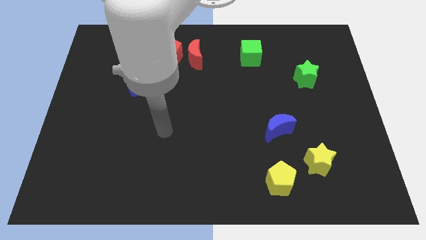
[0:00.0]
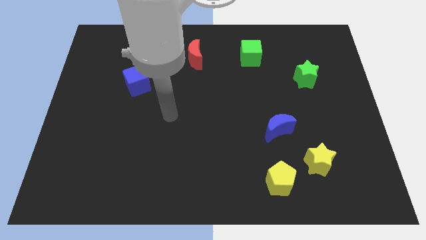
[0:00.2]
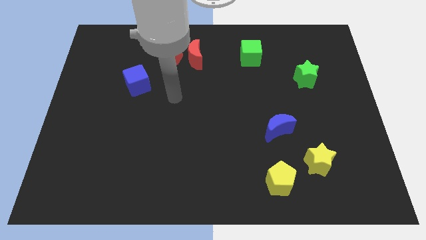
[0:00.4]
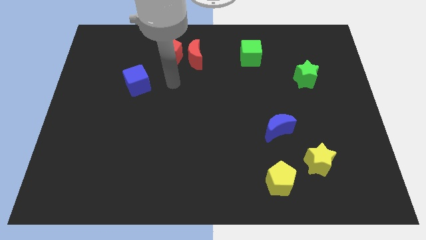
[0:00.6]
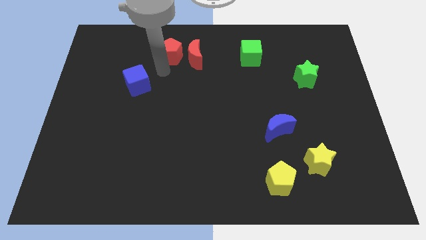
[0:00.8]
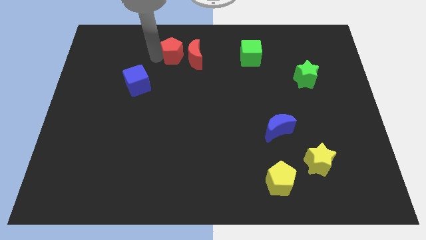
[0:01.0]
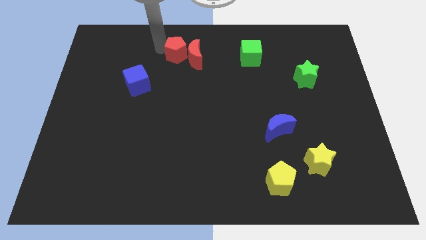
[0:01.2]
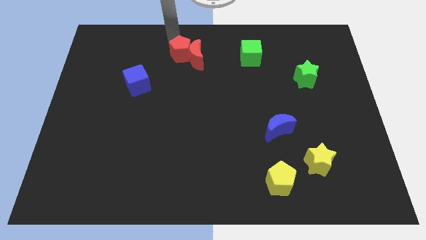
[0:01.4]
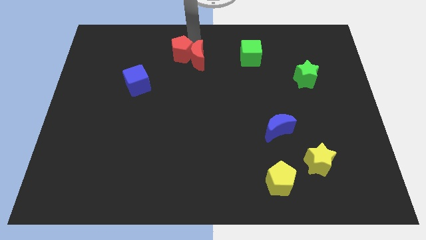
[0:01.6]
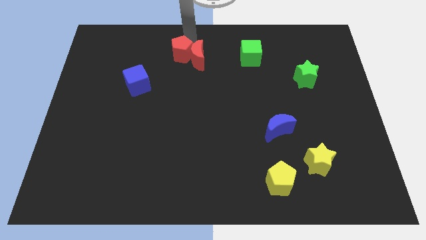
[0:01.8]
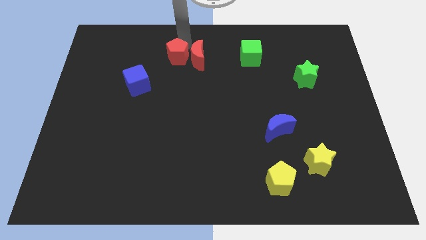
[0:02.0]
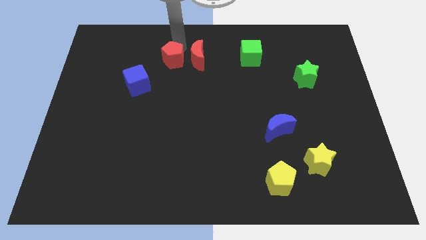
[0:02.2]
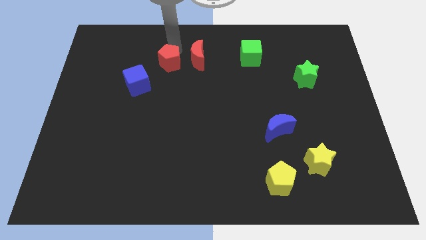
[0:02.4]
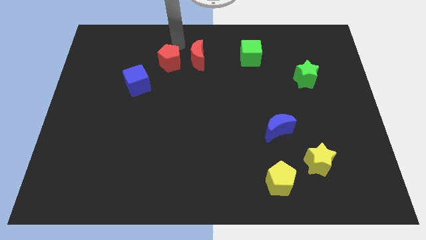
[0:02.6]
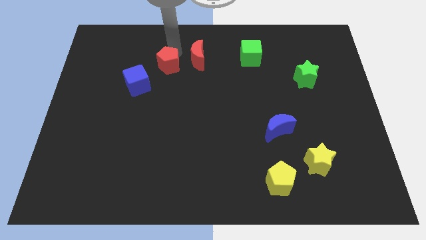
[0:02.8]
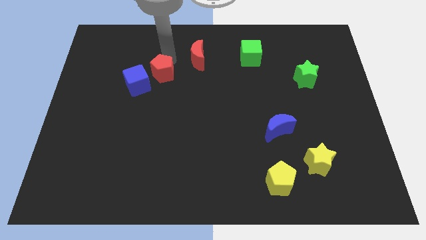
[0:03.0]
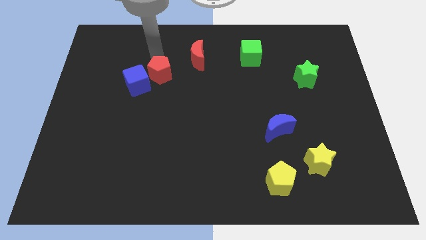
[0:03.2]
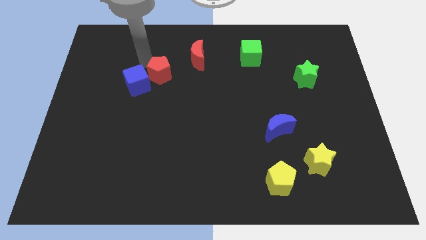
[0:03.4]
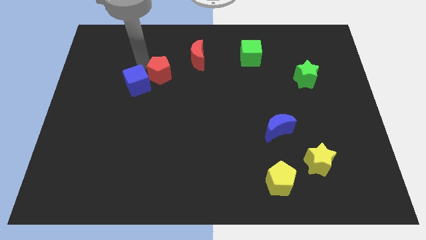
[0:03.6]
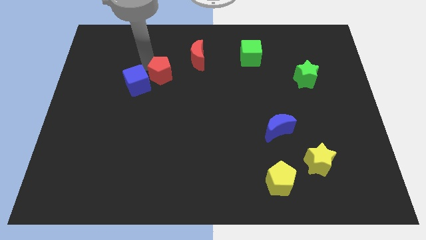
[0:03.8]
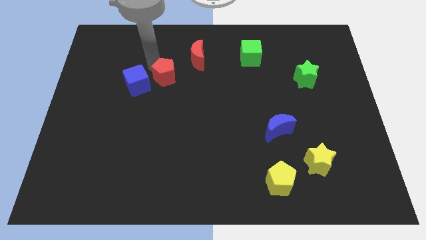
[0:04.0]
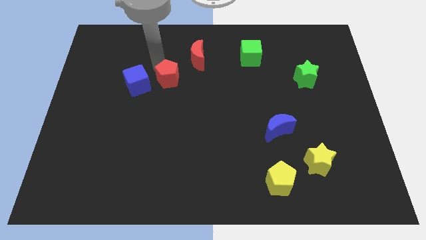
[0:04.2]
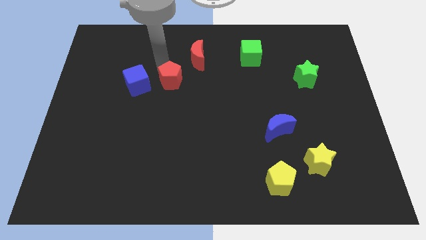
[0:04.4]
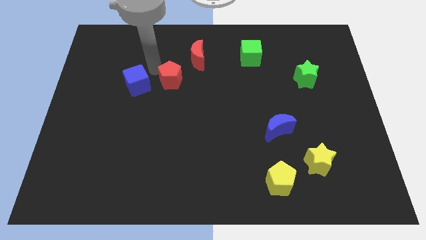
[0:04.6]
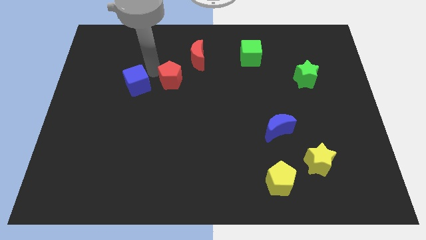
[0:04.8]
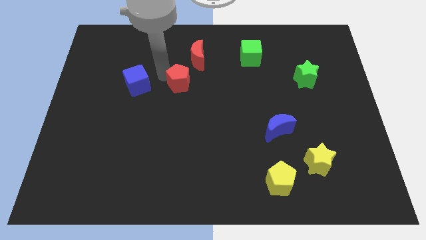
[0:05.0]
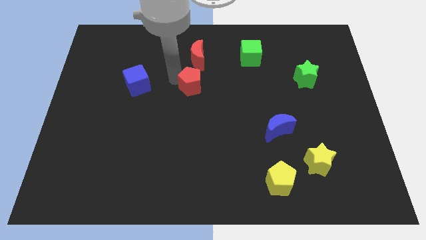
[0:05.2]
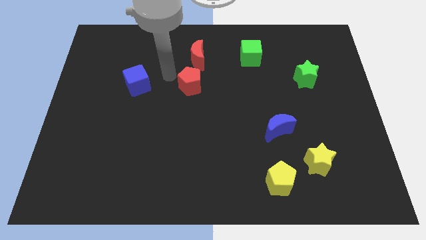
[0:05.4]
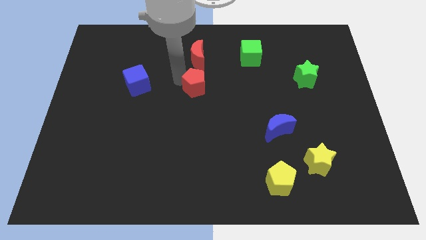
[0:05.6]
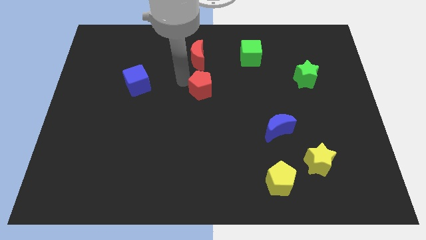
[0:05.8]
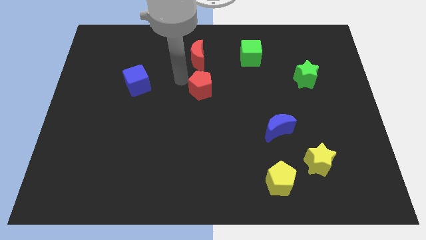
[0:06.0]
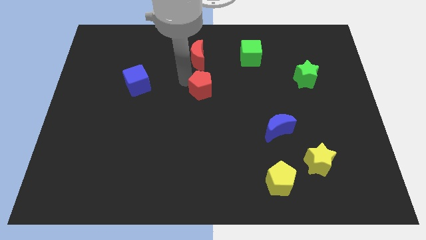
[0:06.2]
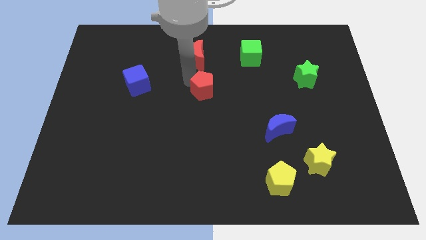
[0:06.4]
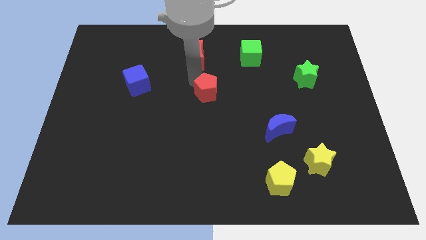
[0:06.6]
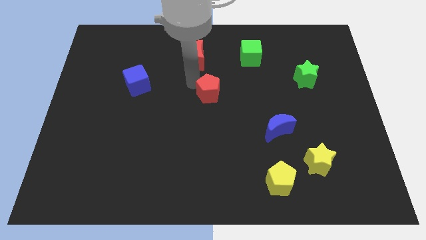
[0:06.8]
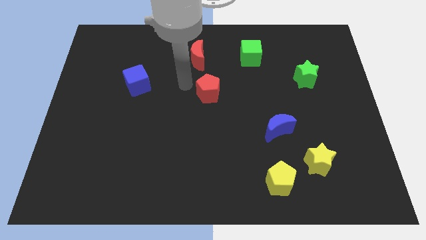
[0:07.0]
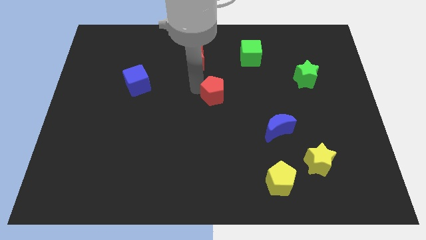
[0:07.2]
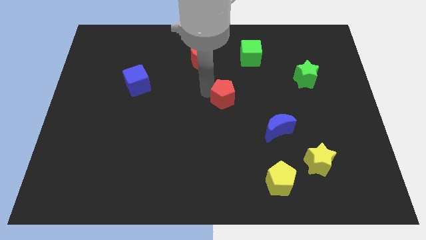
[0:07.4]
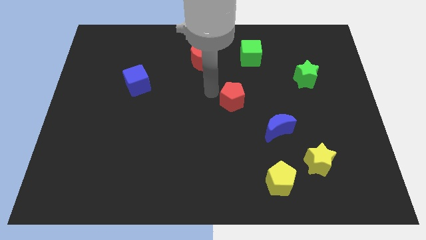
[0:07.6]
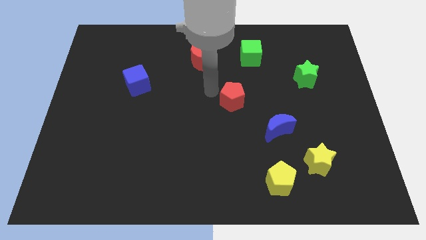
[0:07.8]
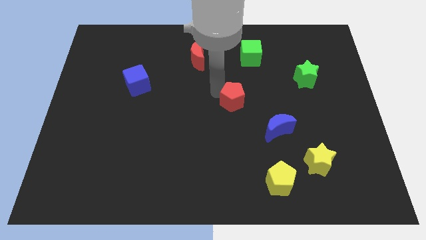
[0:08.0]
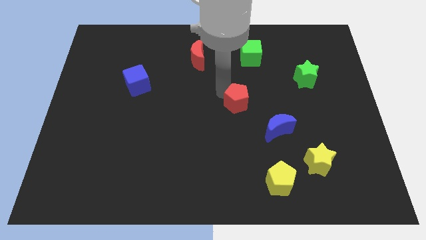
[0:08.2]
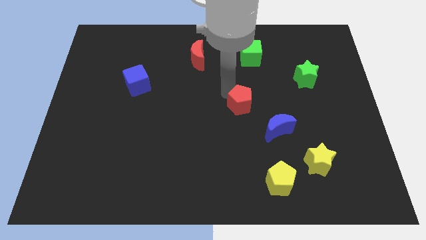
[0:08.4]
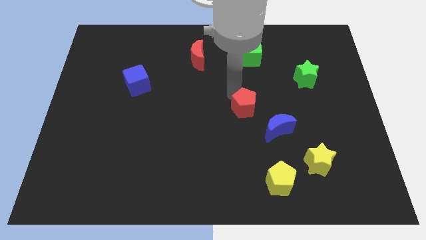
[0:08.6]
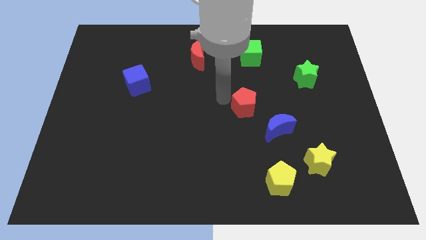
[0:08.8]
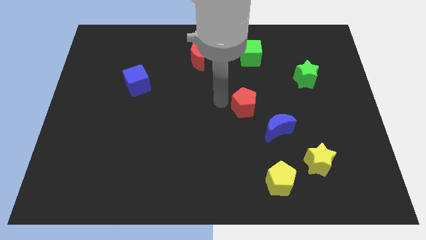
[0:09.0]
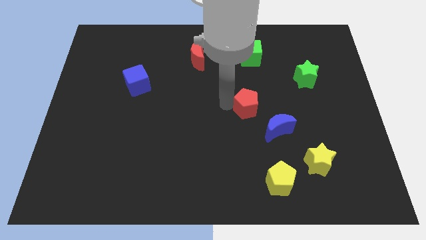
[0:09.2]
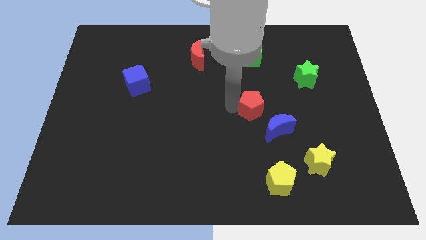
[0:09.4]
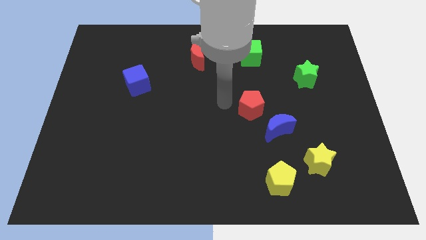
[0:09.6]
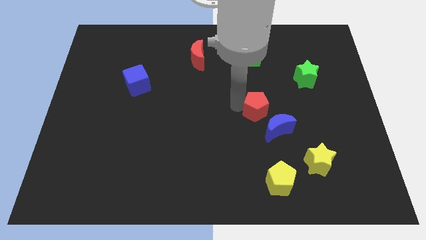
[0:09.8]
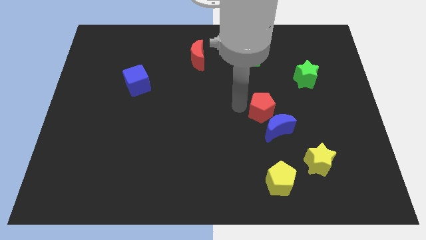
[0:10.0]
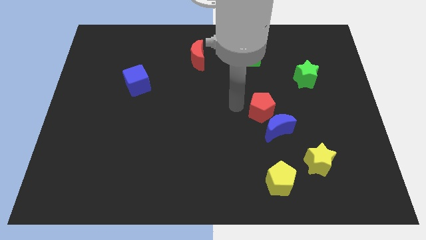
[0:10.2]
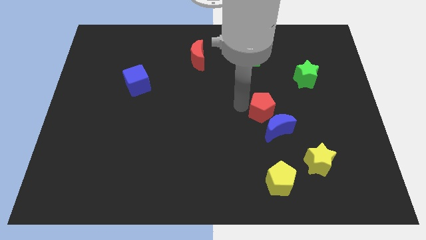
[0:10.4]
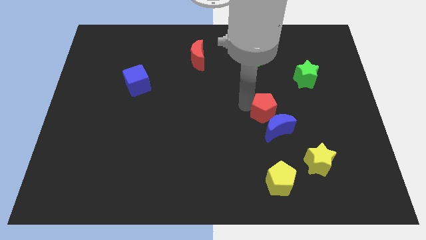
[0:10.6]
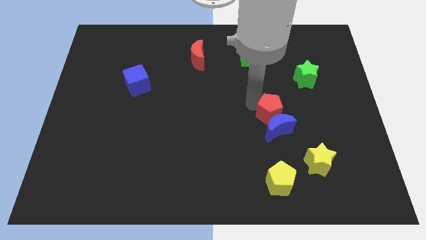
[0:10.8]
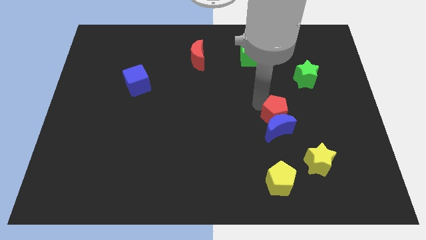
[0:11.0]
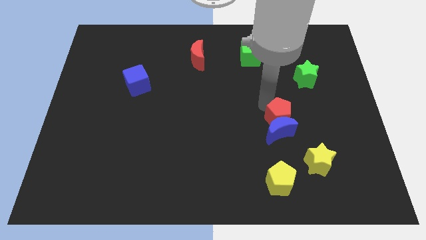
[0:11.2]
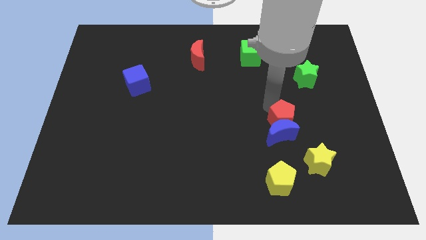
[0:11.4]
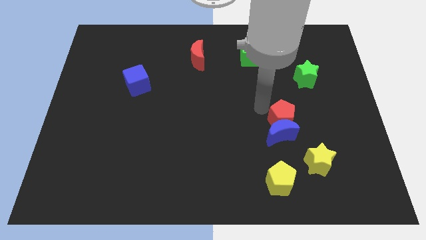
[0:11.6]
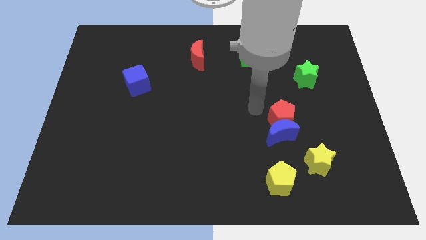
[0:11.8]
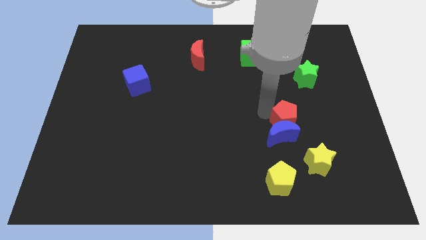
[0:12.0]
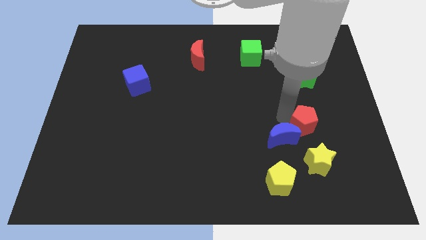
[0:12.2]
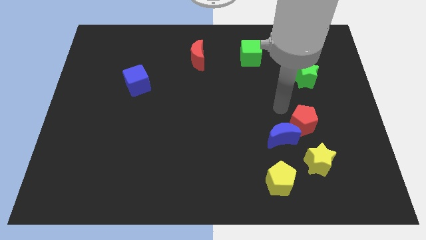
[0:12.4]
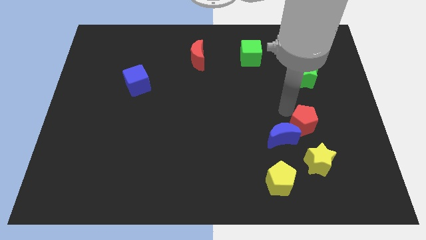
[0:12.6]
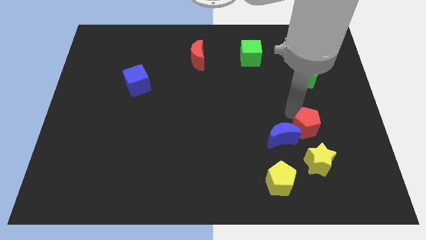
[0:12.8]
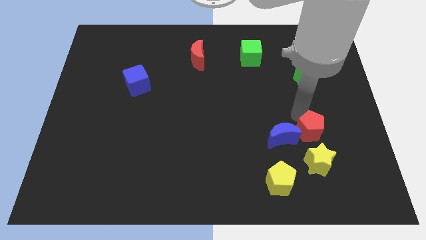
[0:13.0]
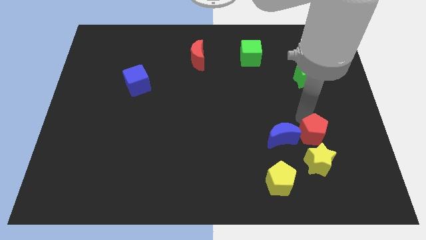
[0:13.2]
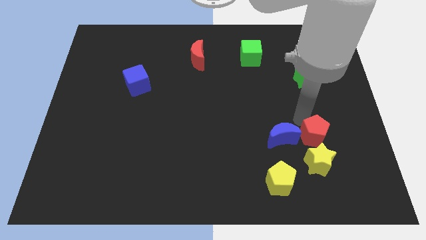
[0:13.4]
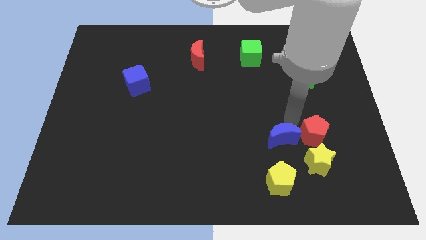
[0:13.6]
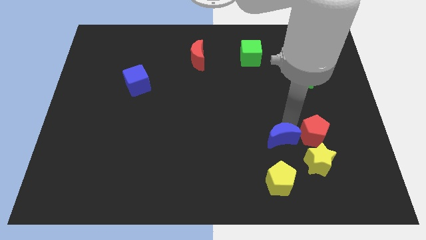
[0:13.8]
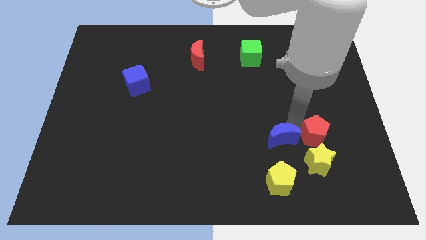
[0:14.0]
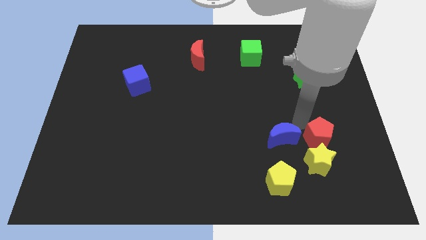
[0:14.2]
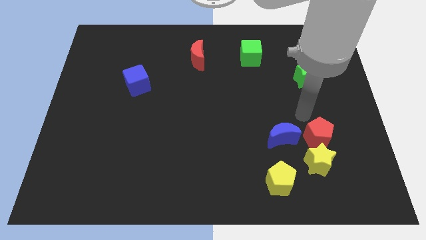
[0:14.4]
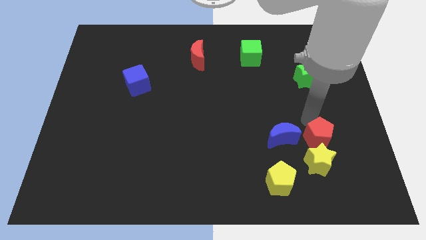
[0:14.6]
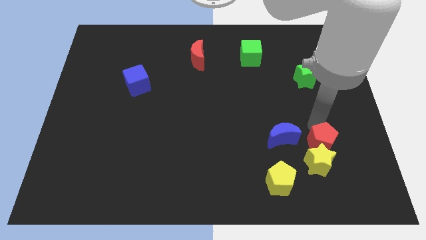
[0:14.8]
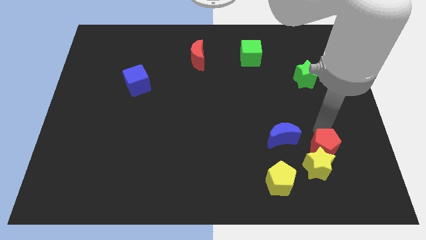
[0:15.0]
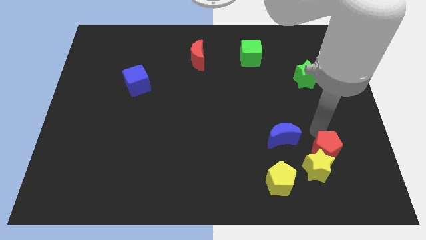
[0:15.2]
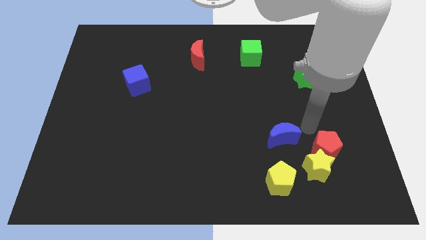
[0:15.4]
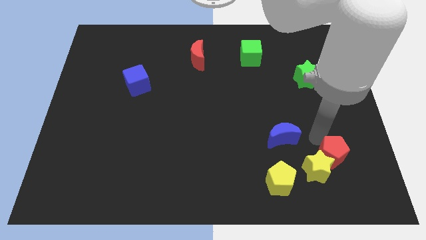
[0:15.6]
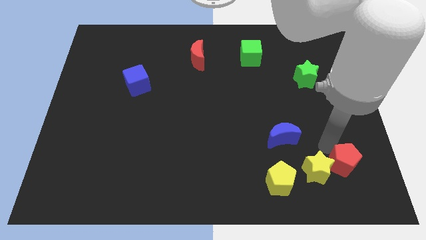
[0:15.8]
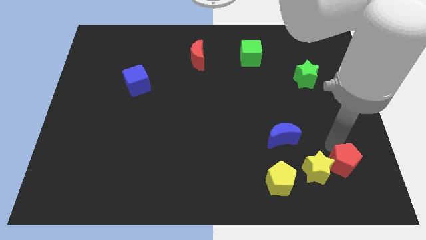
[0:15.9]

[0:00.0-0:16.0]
put the red pentagon to the right side of the yellow pentagon
